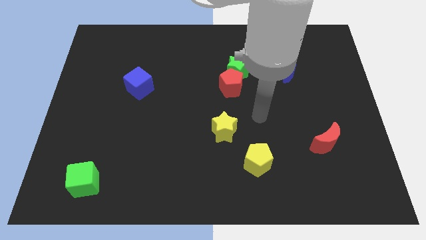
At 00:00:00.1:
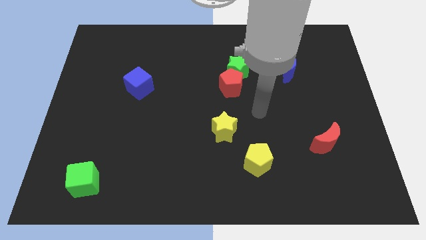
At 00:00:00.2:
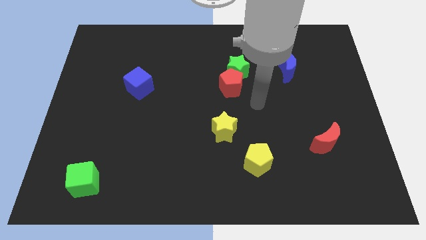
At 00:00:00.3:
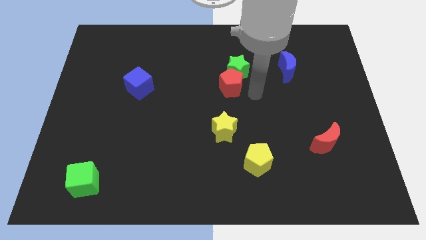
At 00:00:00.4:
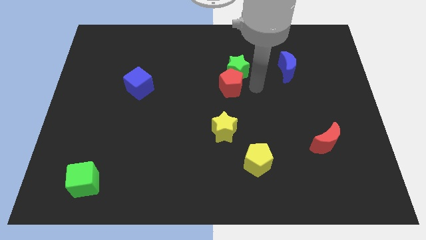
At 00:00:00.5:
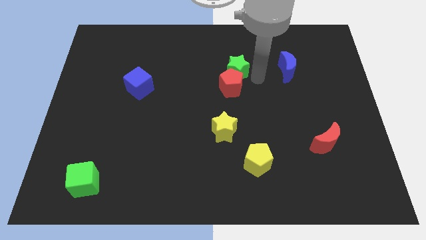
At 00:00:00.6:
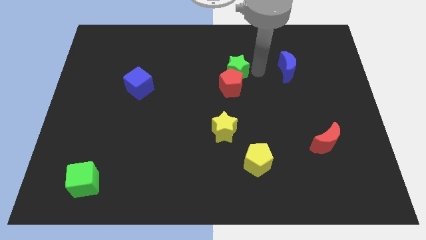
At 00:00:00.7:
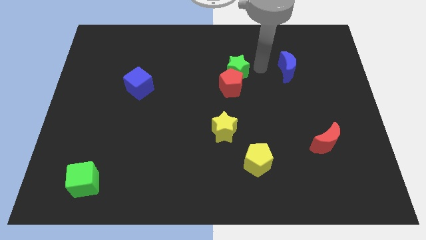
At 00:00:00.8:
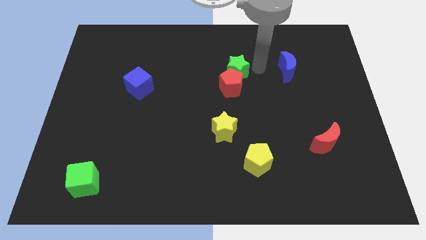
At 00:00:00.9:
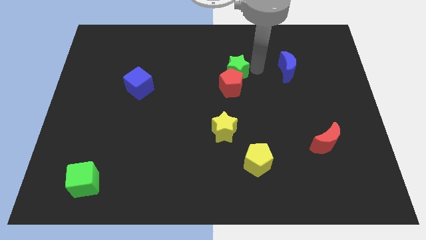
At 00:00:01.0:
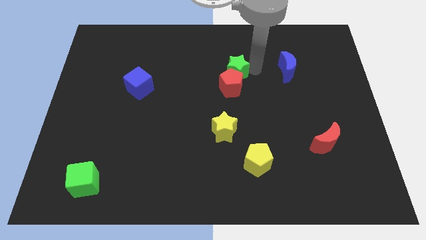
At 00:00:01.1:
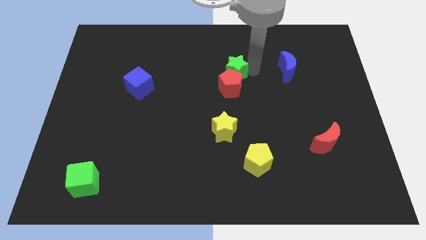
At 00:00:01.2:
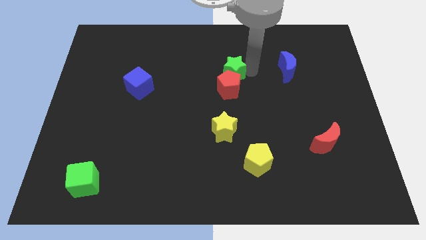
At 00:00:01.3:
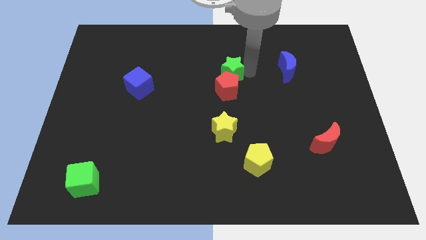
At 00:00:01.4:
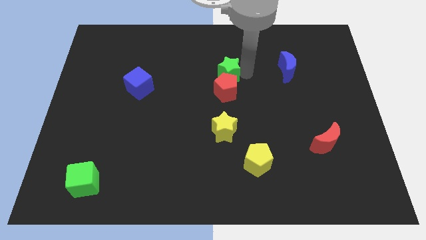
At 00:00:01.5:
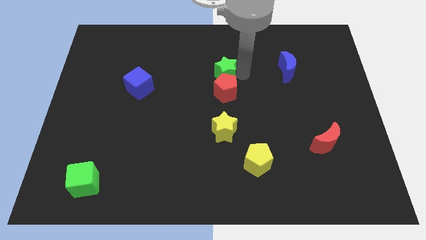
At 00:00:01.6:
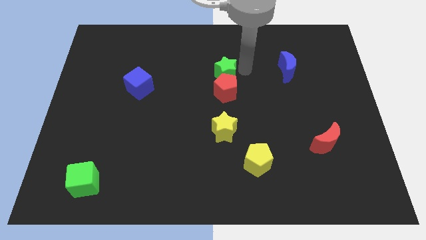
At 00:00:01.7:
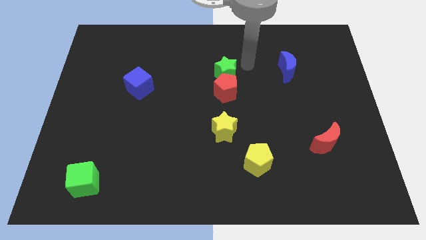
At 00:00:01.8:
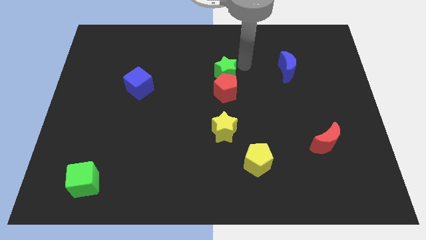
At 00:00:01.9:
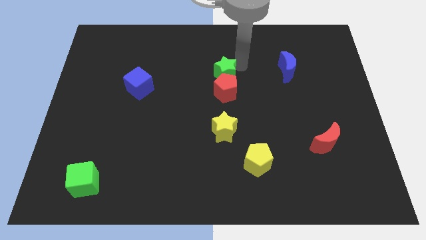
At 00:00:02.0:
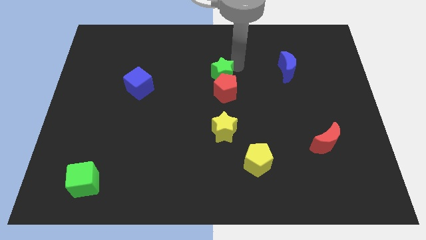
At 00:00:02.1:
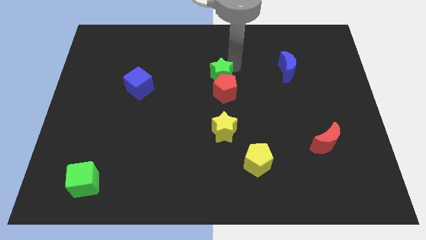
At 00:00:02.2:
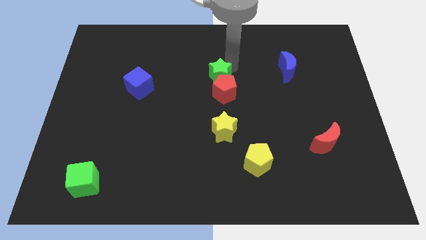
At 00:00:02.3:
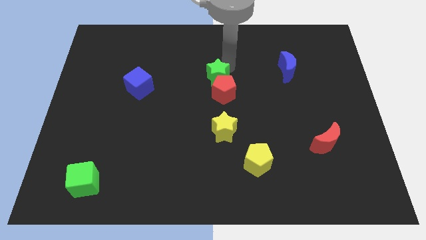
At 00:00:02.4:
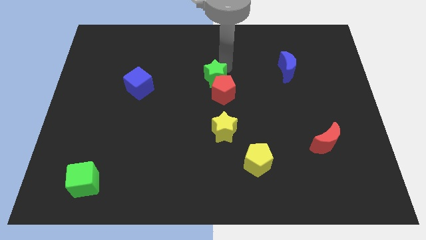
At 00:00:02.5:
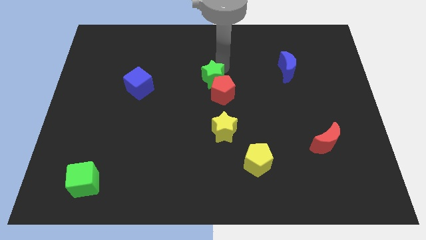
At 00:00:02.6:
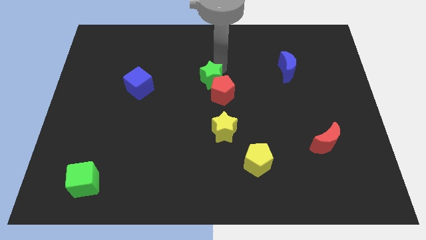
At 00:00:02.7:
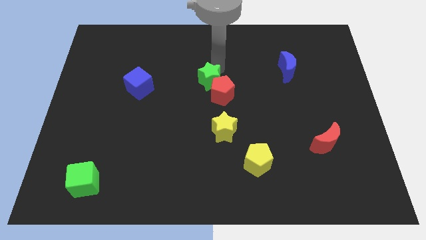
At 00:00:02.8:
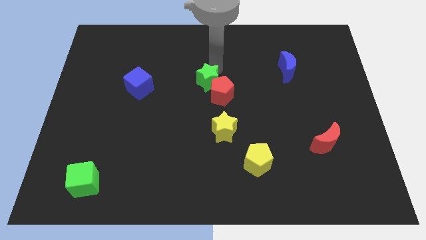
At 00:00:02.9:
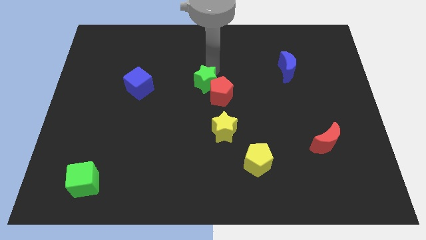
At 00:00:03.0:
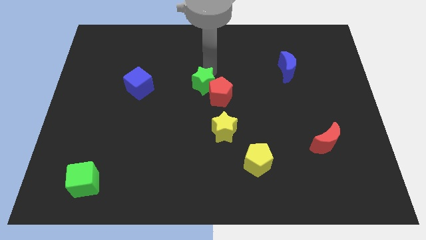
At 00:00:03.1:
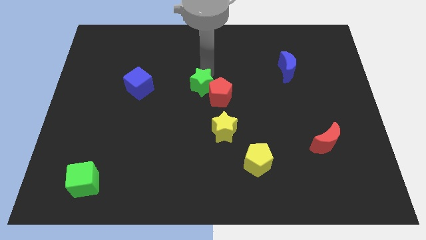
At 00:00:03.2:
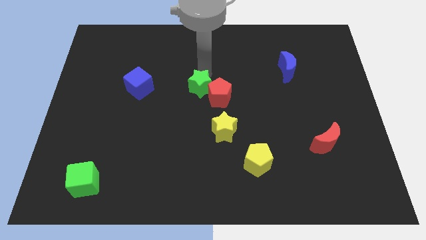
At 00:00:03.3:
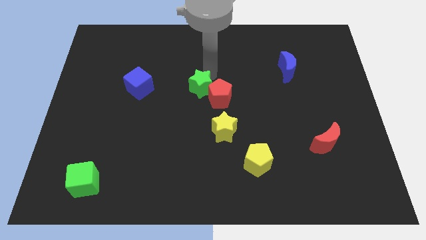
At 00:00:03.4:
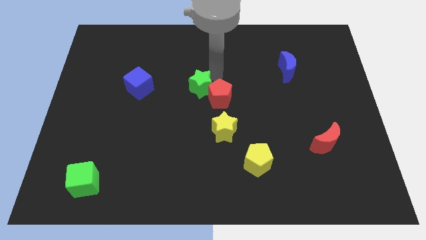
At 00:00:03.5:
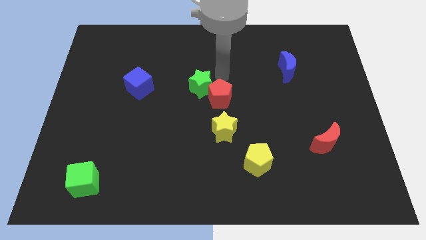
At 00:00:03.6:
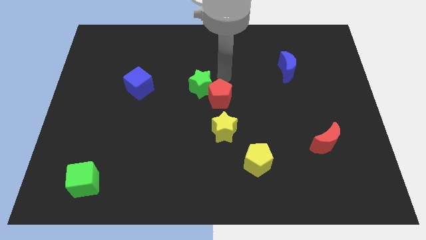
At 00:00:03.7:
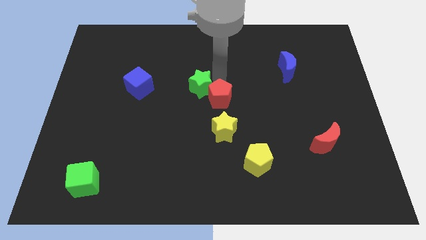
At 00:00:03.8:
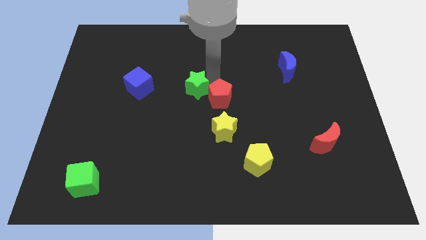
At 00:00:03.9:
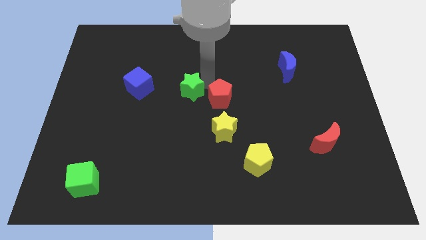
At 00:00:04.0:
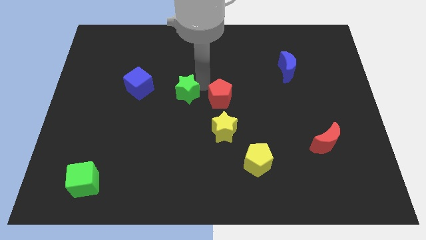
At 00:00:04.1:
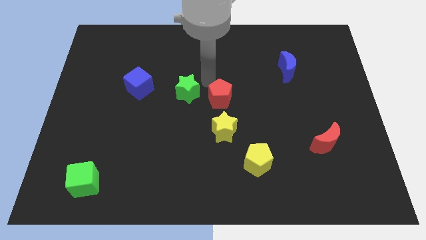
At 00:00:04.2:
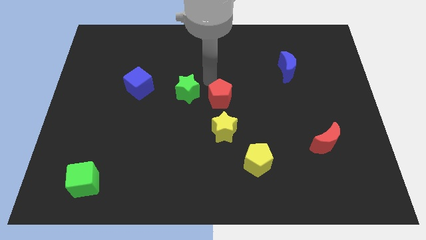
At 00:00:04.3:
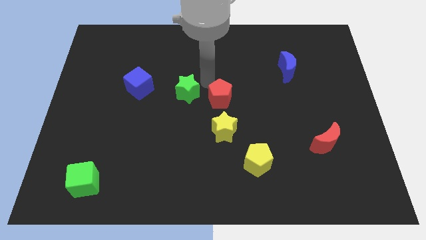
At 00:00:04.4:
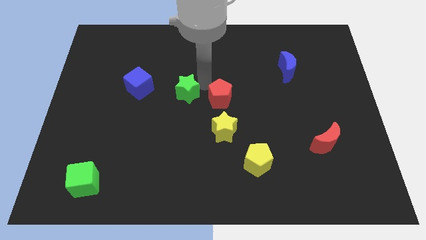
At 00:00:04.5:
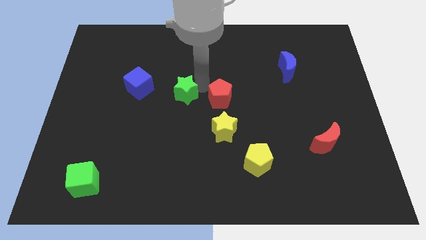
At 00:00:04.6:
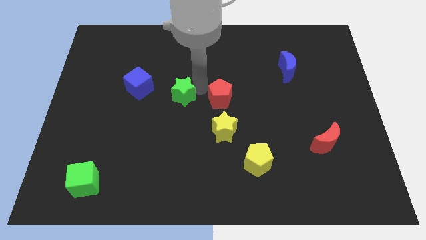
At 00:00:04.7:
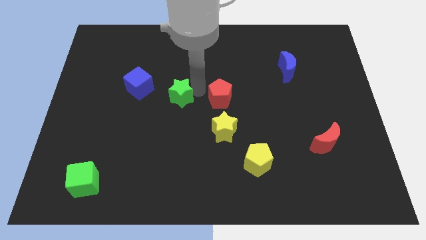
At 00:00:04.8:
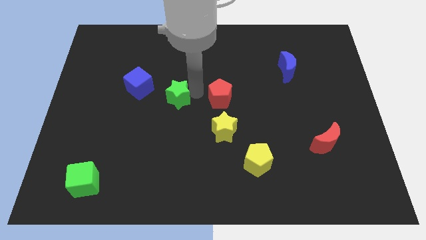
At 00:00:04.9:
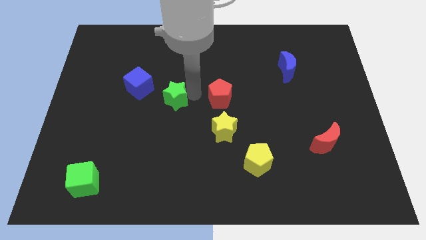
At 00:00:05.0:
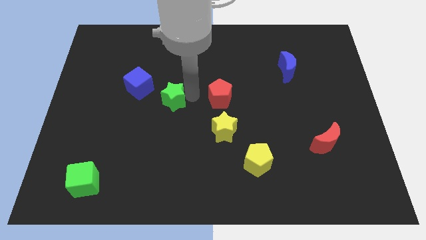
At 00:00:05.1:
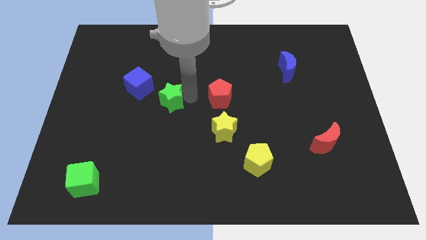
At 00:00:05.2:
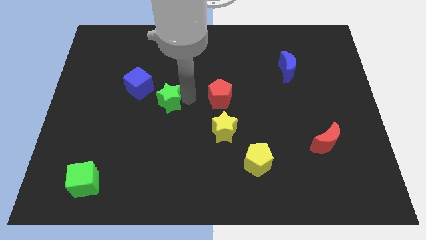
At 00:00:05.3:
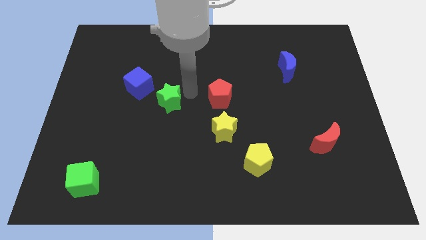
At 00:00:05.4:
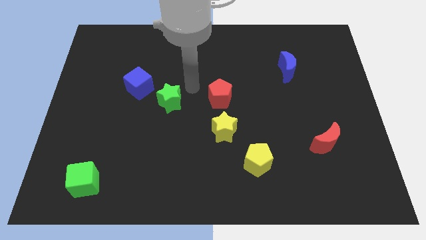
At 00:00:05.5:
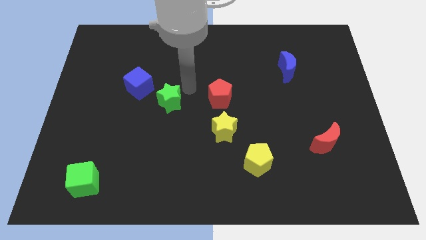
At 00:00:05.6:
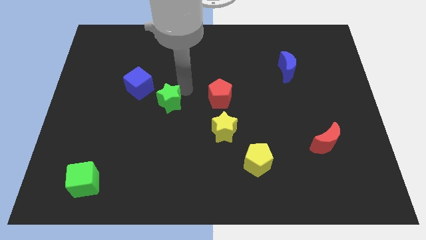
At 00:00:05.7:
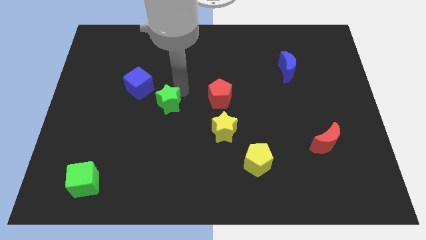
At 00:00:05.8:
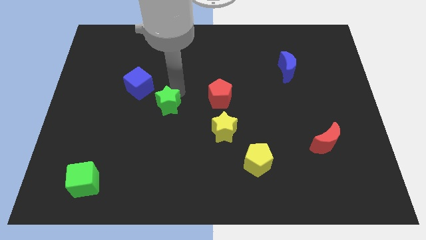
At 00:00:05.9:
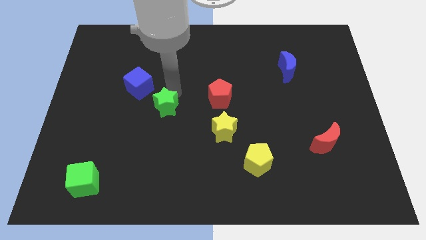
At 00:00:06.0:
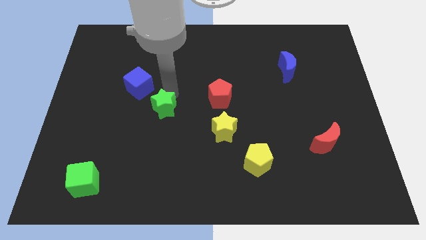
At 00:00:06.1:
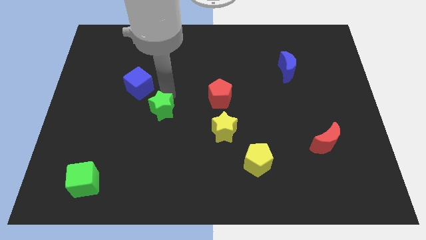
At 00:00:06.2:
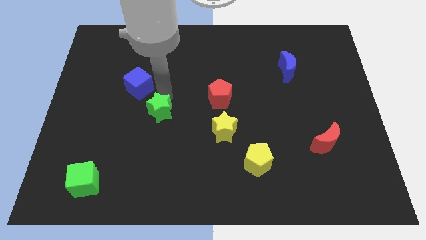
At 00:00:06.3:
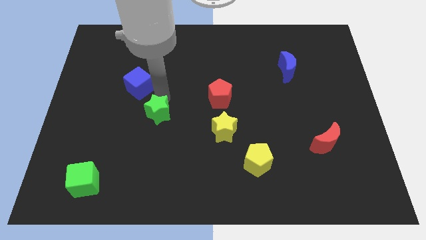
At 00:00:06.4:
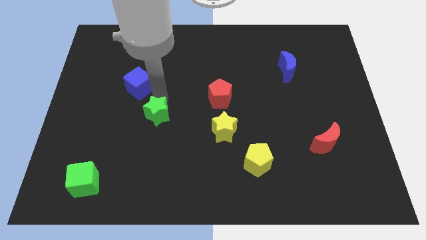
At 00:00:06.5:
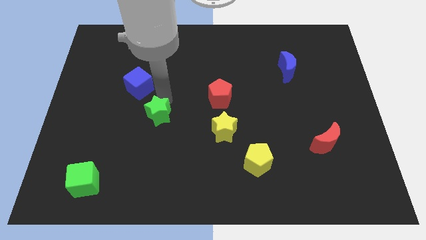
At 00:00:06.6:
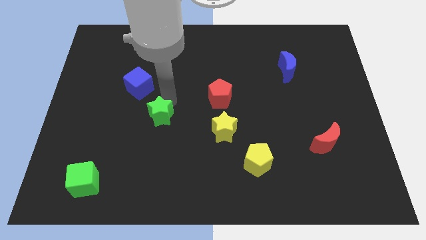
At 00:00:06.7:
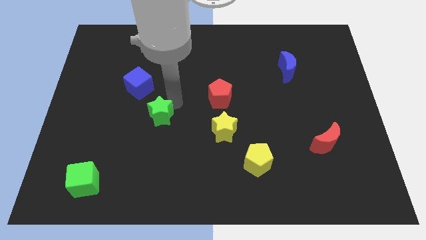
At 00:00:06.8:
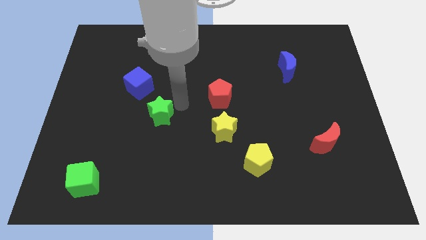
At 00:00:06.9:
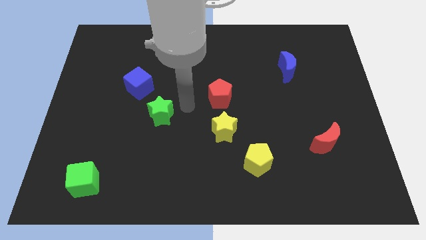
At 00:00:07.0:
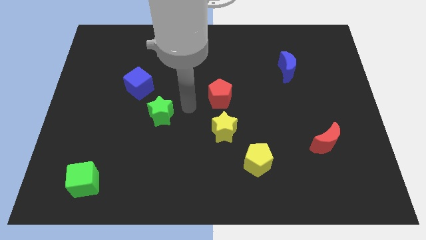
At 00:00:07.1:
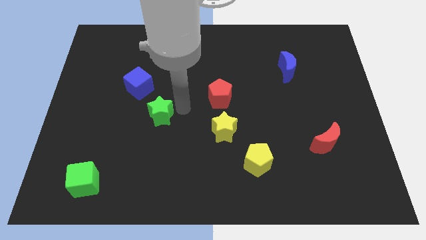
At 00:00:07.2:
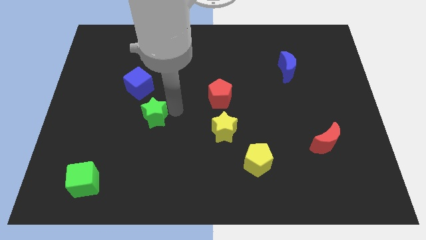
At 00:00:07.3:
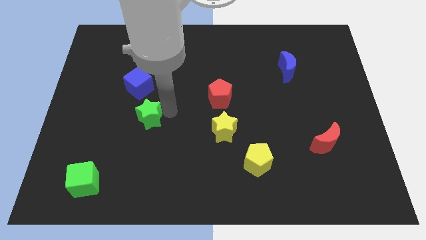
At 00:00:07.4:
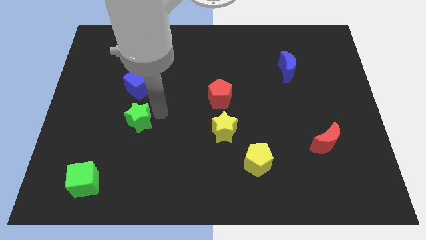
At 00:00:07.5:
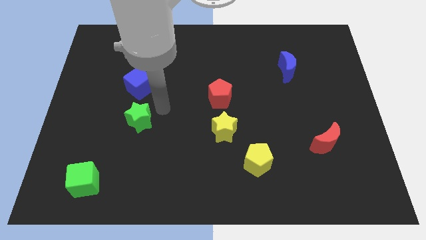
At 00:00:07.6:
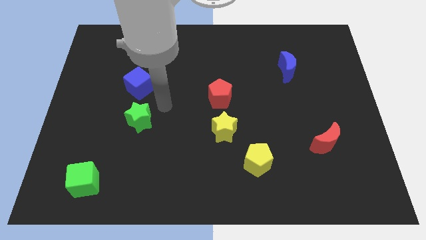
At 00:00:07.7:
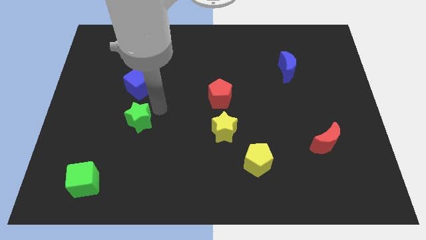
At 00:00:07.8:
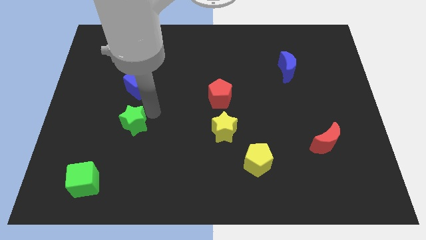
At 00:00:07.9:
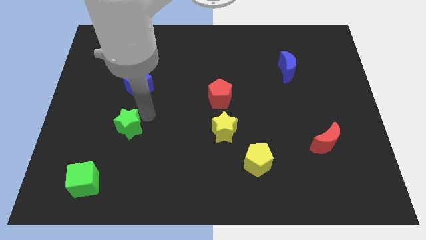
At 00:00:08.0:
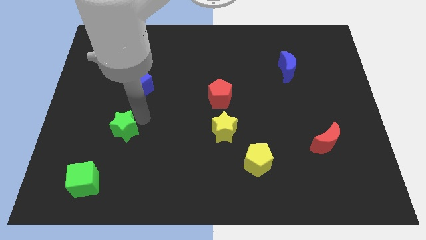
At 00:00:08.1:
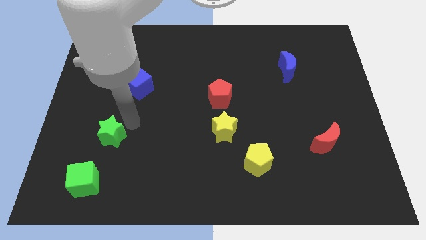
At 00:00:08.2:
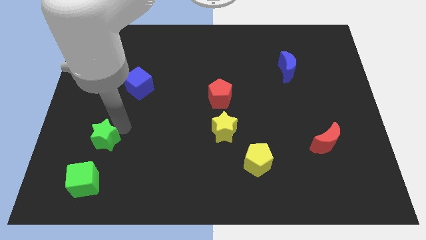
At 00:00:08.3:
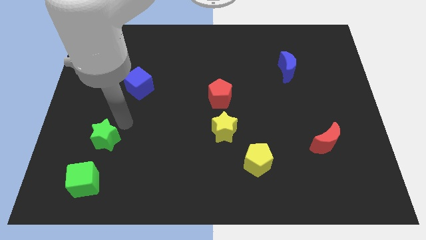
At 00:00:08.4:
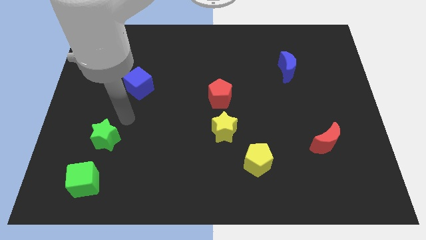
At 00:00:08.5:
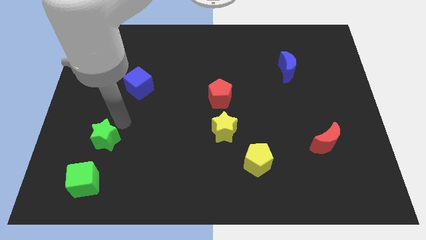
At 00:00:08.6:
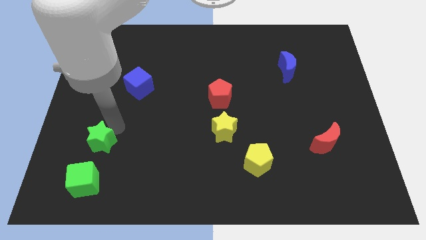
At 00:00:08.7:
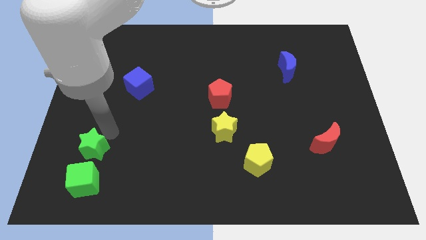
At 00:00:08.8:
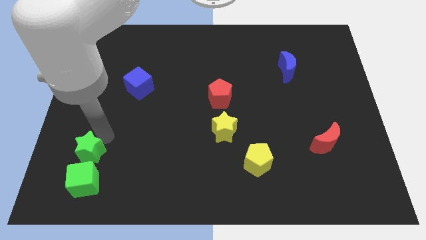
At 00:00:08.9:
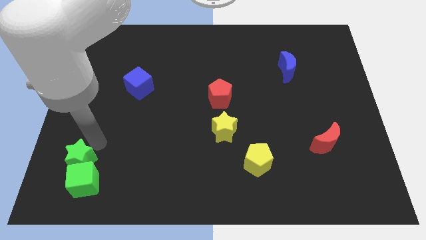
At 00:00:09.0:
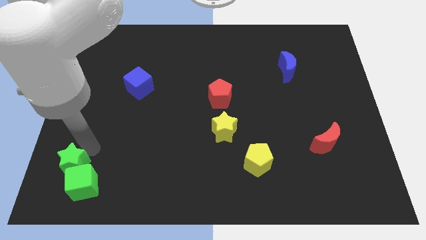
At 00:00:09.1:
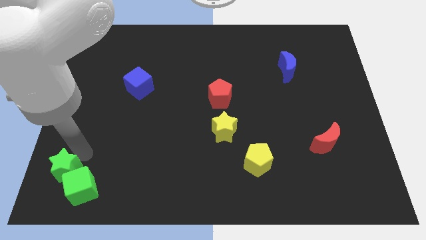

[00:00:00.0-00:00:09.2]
slide the green star to the bottom left
